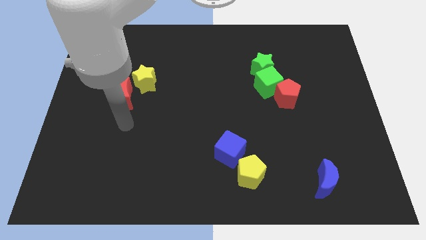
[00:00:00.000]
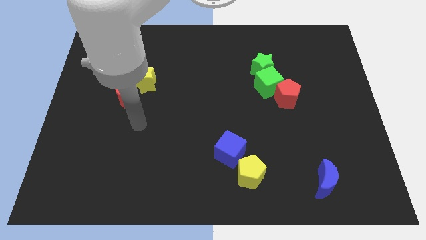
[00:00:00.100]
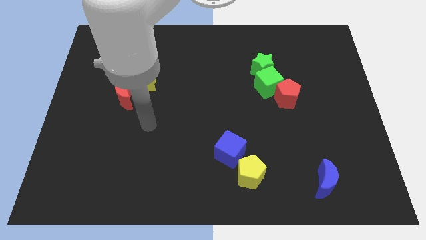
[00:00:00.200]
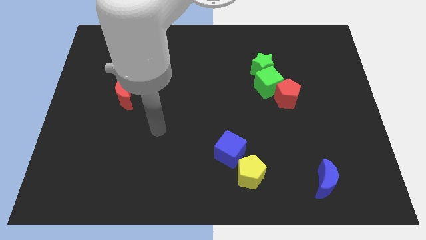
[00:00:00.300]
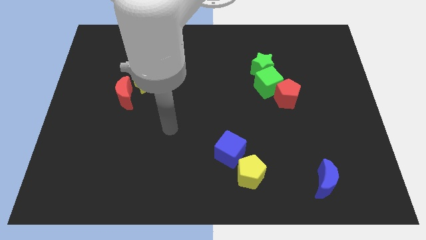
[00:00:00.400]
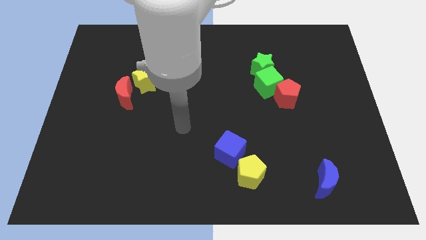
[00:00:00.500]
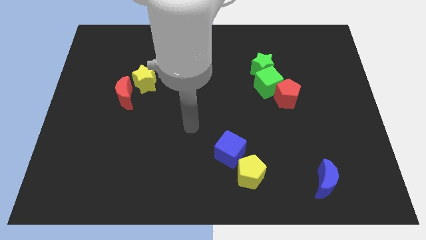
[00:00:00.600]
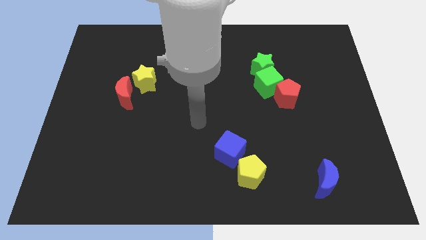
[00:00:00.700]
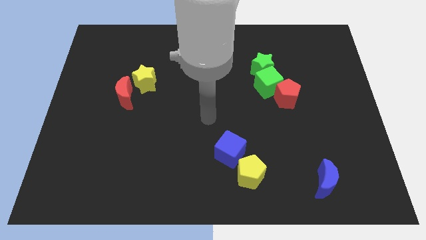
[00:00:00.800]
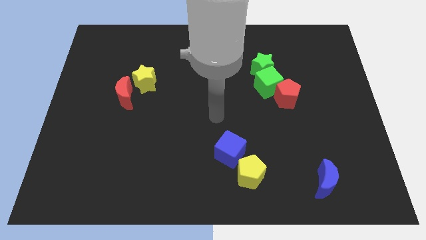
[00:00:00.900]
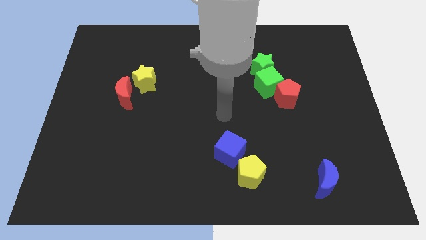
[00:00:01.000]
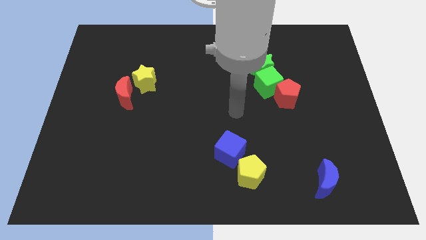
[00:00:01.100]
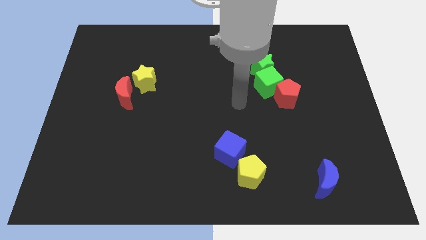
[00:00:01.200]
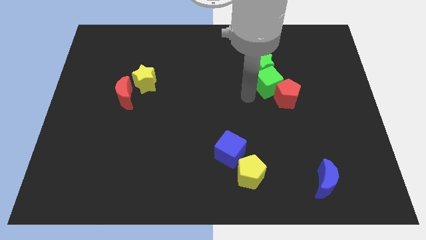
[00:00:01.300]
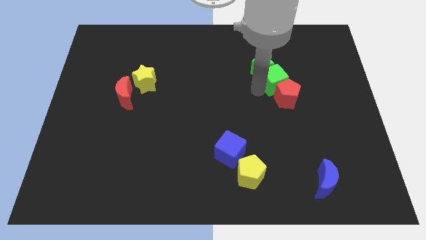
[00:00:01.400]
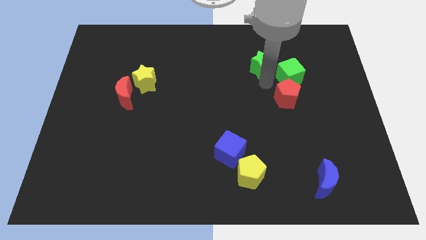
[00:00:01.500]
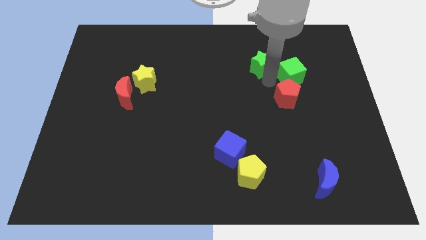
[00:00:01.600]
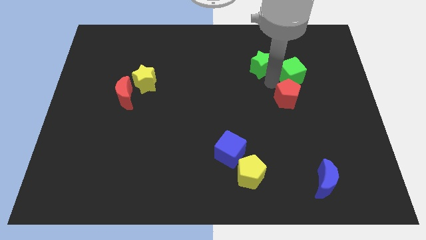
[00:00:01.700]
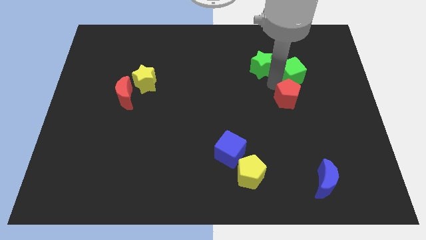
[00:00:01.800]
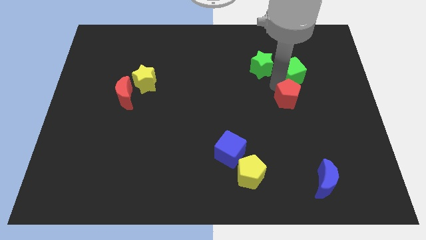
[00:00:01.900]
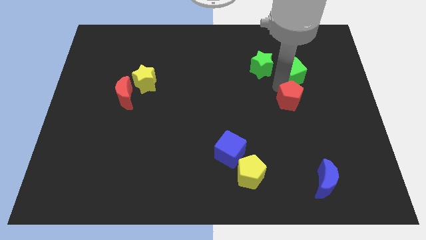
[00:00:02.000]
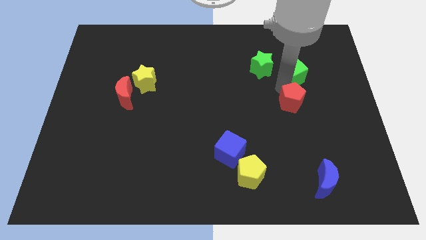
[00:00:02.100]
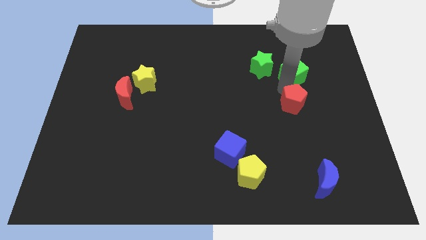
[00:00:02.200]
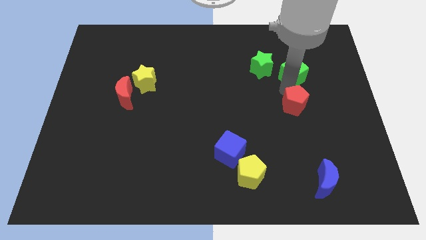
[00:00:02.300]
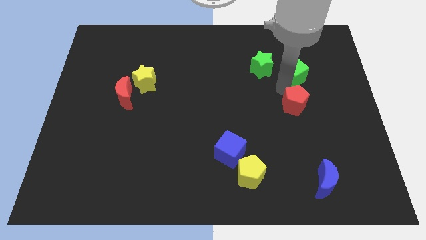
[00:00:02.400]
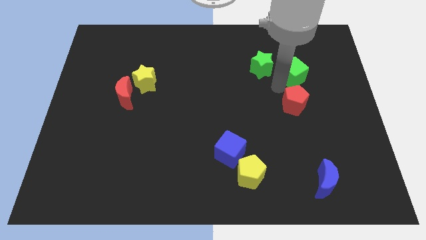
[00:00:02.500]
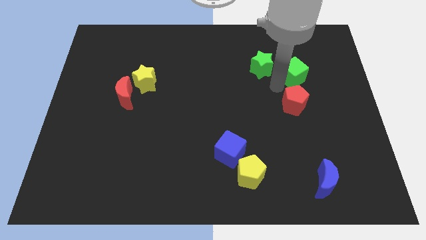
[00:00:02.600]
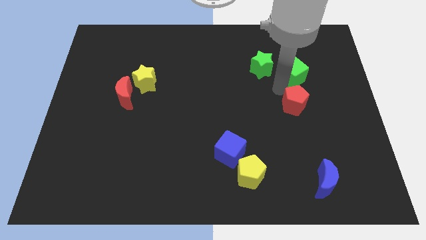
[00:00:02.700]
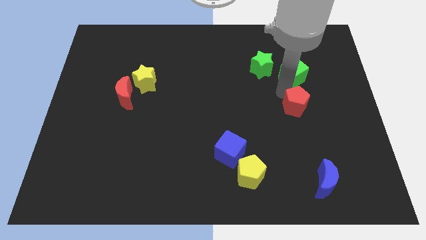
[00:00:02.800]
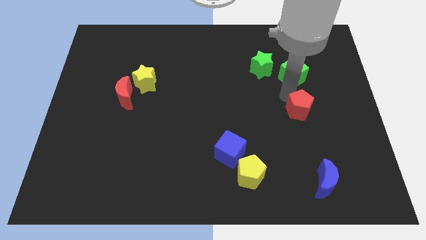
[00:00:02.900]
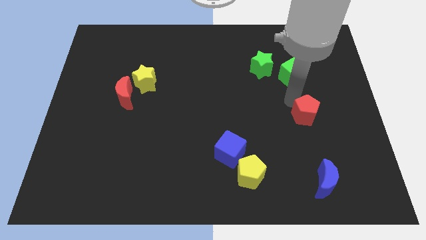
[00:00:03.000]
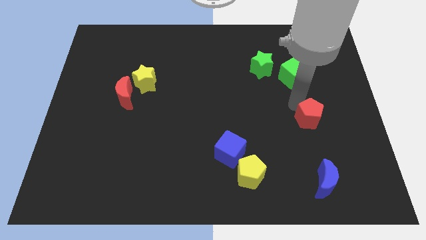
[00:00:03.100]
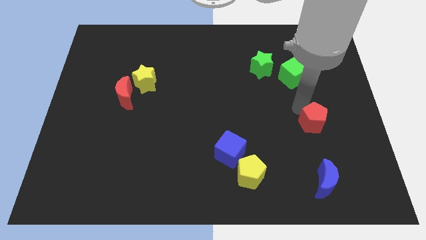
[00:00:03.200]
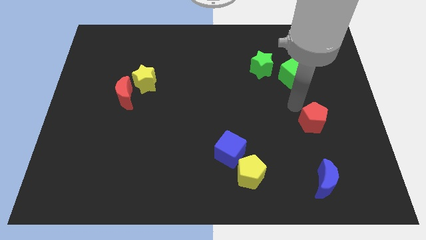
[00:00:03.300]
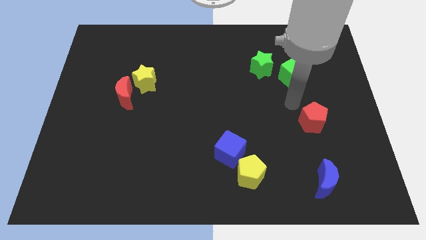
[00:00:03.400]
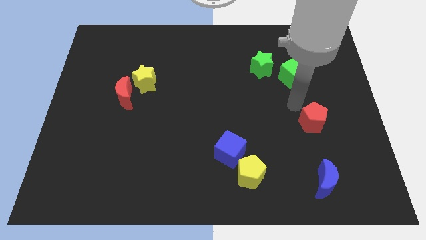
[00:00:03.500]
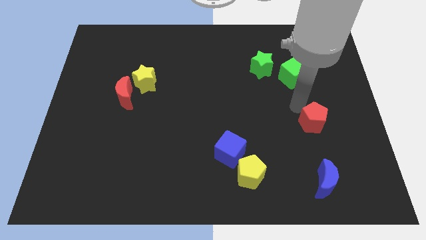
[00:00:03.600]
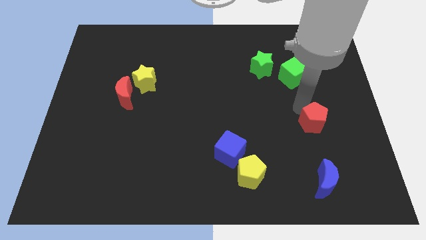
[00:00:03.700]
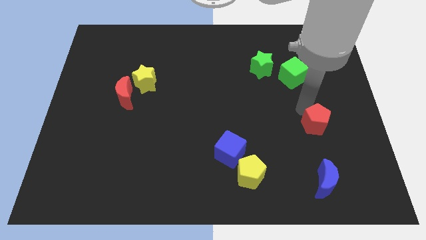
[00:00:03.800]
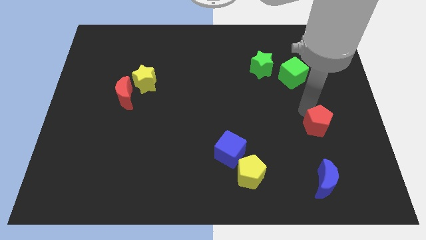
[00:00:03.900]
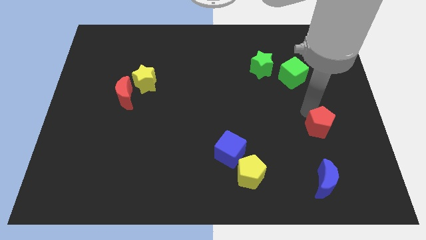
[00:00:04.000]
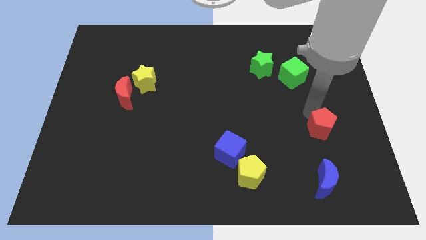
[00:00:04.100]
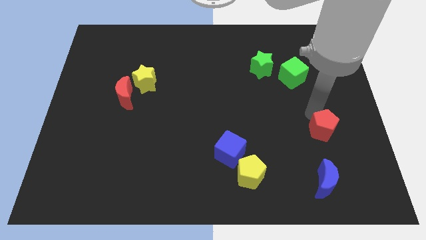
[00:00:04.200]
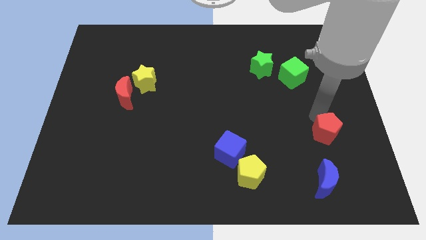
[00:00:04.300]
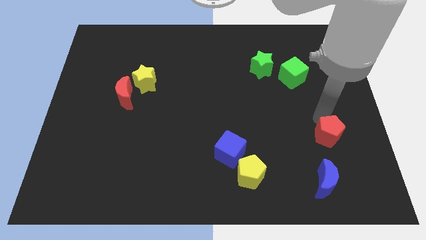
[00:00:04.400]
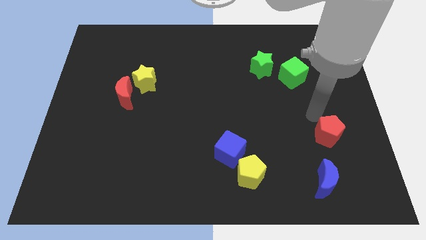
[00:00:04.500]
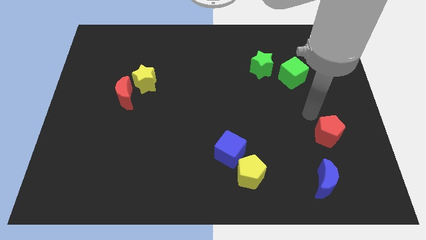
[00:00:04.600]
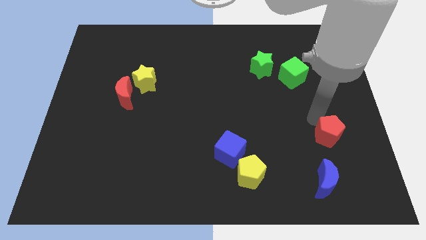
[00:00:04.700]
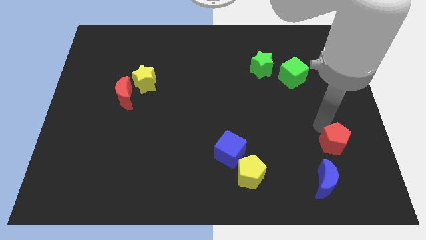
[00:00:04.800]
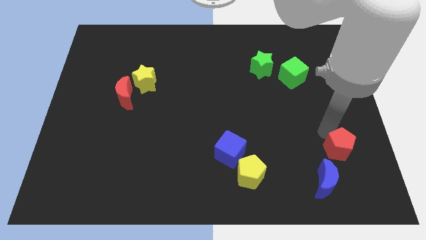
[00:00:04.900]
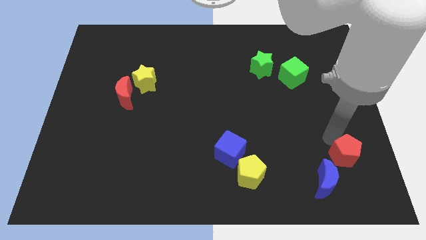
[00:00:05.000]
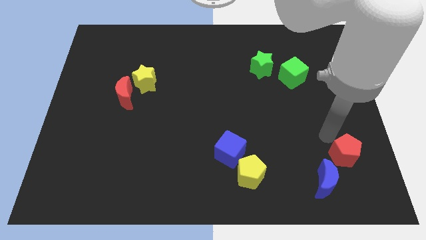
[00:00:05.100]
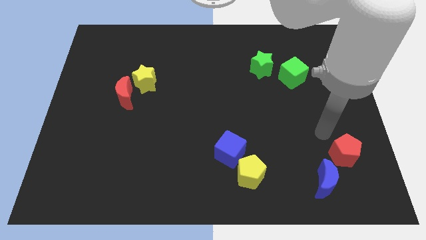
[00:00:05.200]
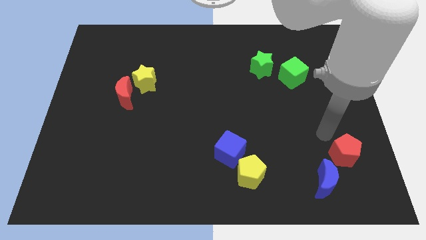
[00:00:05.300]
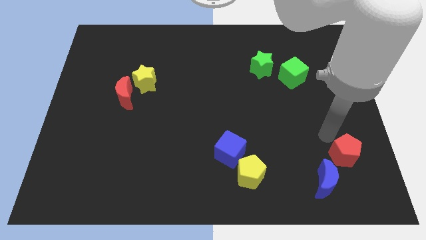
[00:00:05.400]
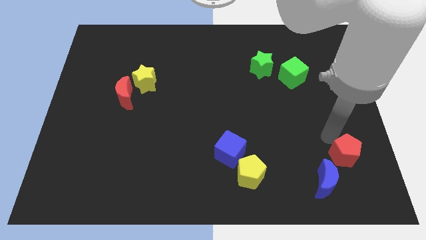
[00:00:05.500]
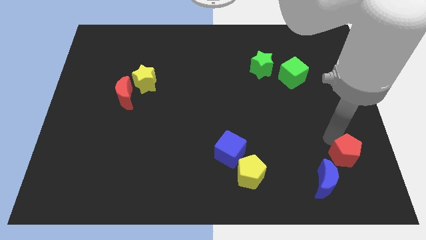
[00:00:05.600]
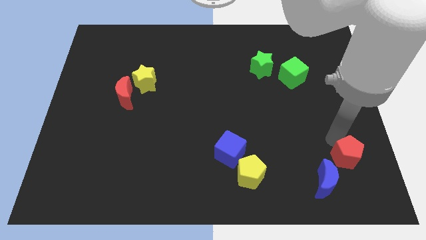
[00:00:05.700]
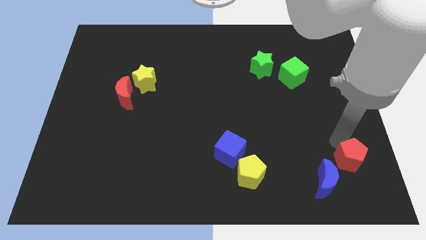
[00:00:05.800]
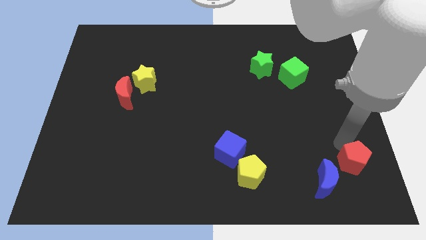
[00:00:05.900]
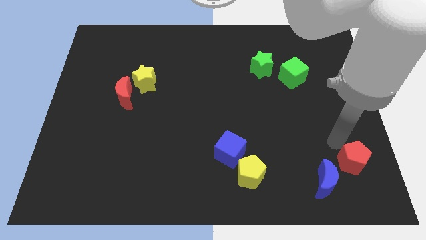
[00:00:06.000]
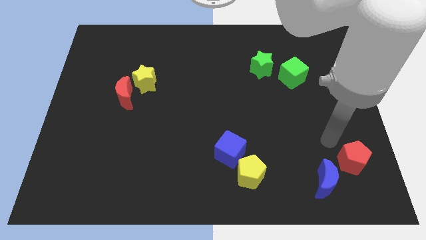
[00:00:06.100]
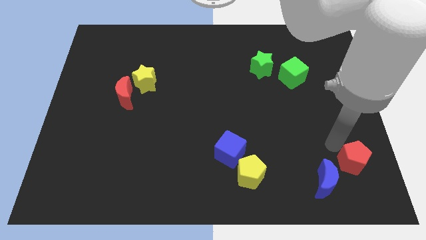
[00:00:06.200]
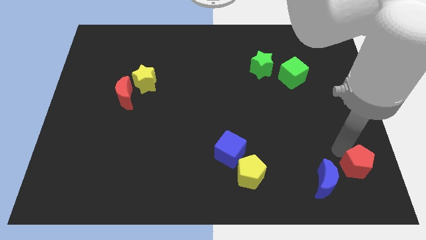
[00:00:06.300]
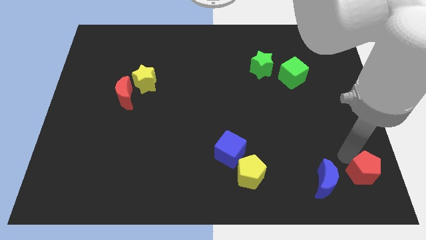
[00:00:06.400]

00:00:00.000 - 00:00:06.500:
put the red pentagon to the bottom right
